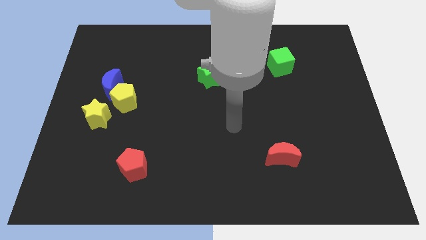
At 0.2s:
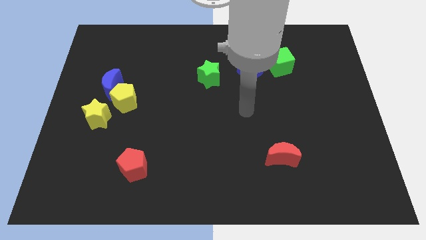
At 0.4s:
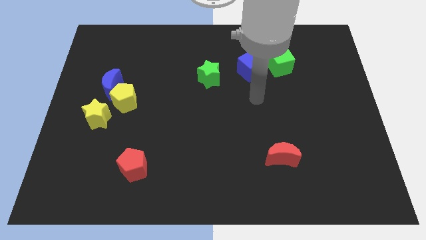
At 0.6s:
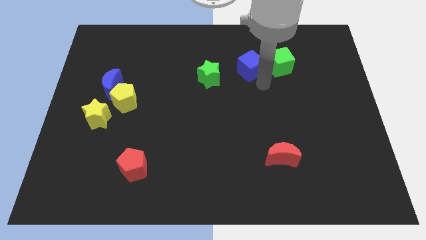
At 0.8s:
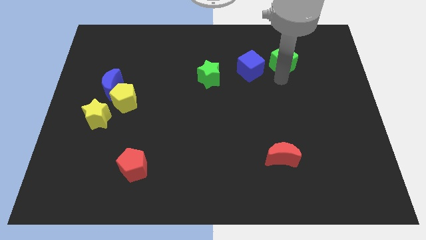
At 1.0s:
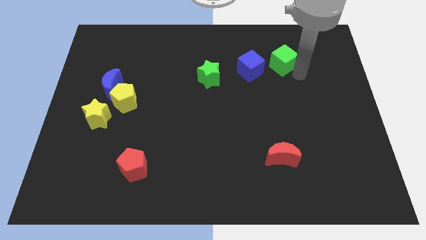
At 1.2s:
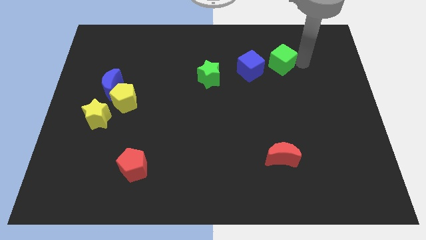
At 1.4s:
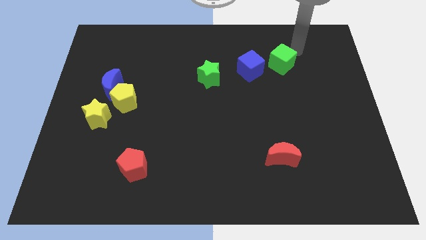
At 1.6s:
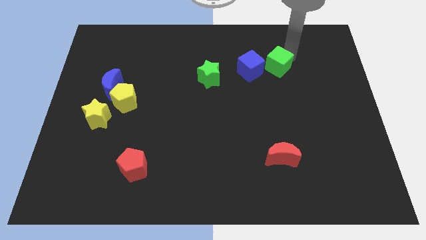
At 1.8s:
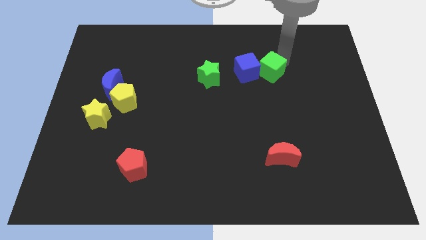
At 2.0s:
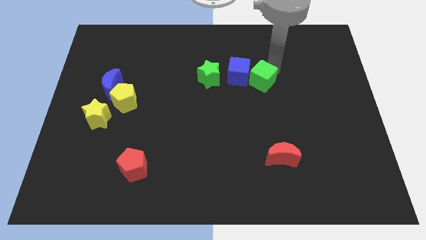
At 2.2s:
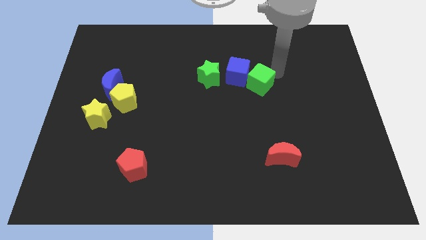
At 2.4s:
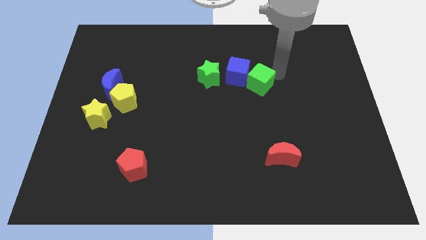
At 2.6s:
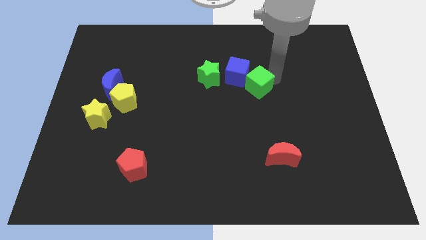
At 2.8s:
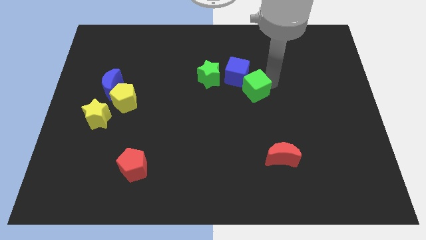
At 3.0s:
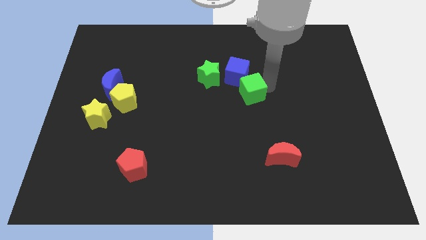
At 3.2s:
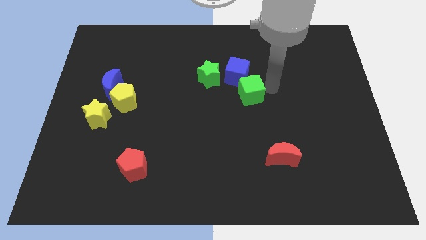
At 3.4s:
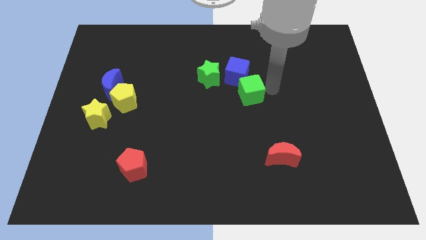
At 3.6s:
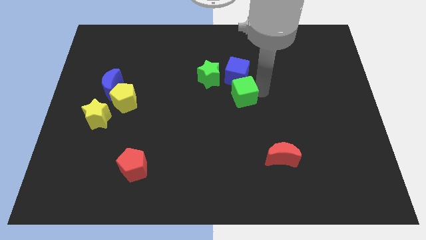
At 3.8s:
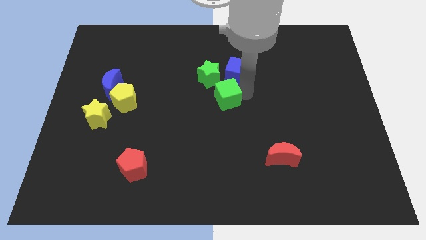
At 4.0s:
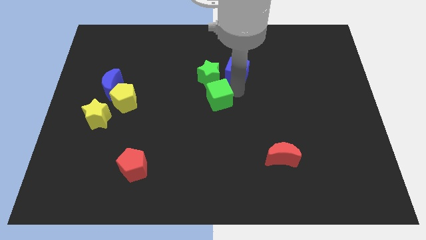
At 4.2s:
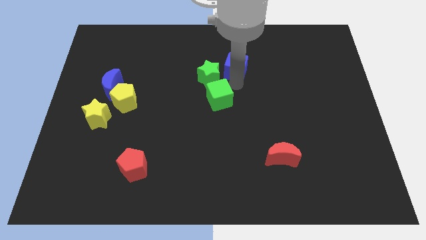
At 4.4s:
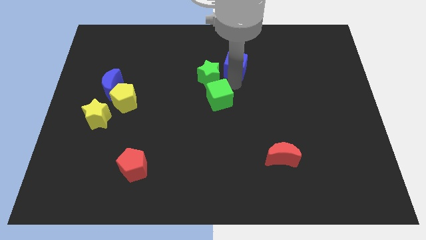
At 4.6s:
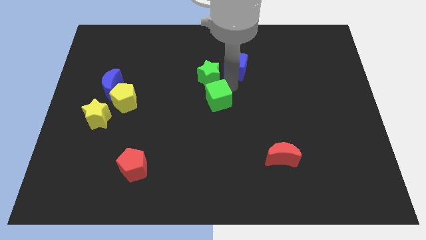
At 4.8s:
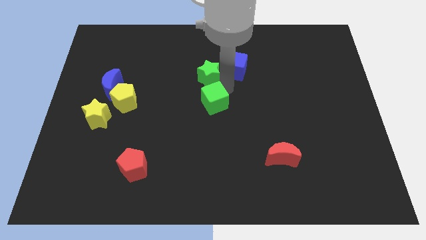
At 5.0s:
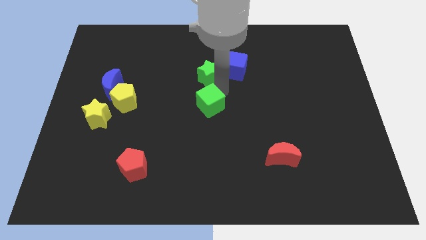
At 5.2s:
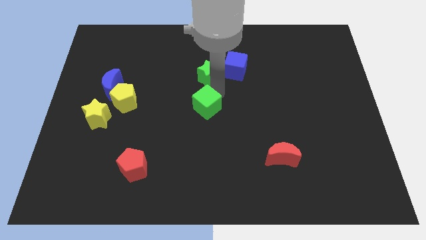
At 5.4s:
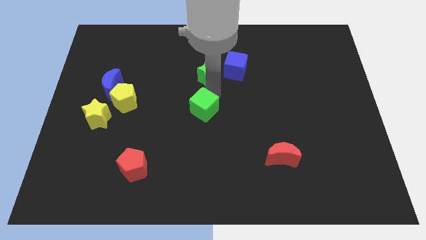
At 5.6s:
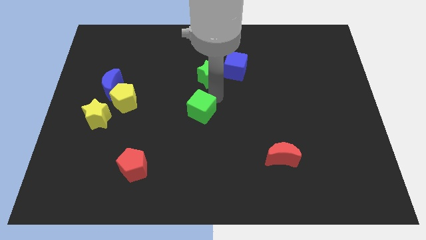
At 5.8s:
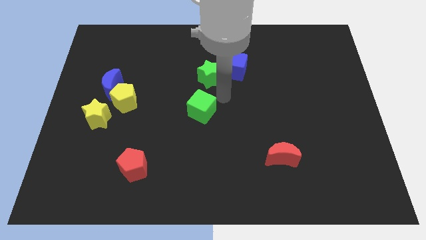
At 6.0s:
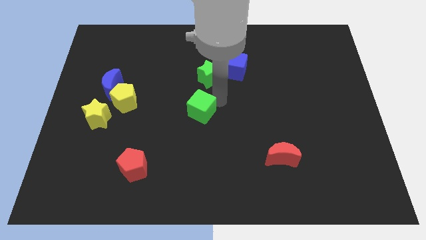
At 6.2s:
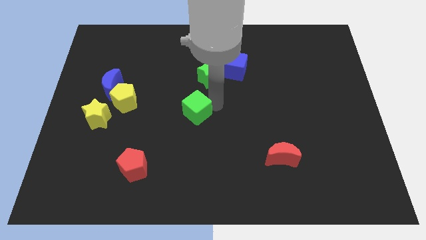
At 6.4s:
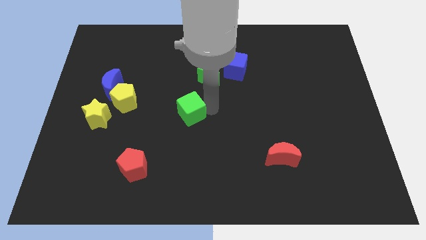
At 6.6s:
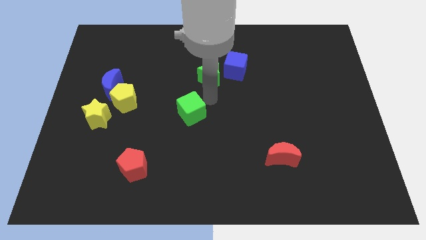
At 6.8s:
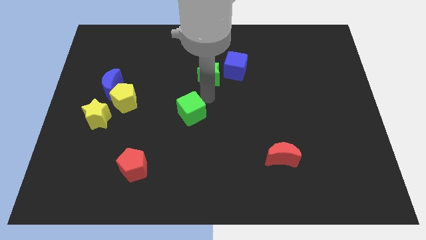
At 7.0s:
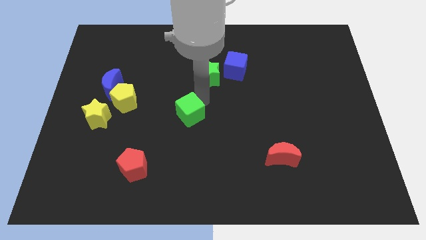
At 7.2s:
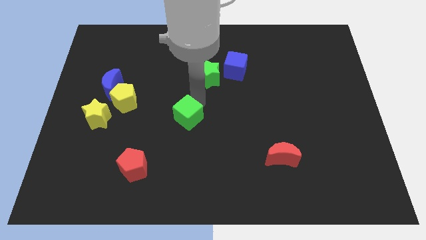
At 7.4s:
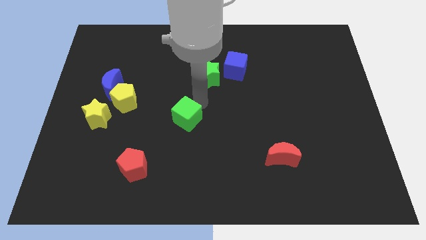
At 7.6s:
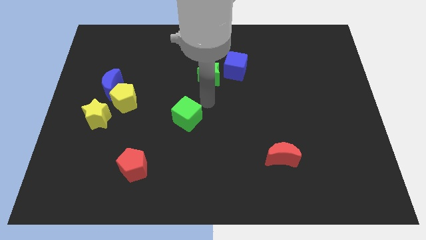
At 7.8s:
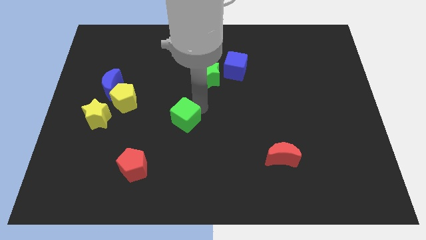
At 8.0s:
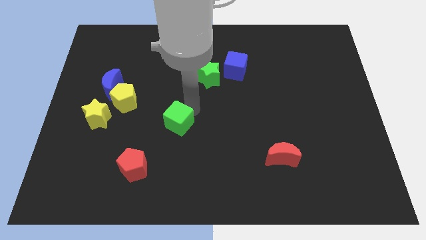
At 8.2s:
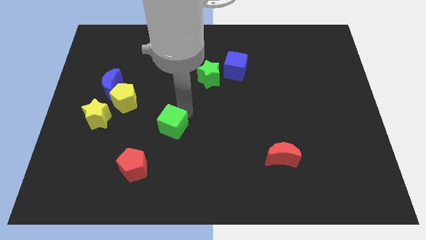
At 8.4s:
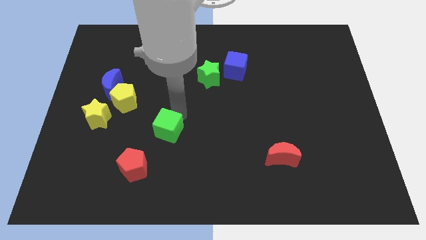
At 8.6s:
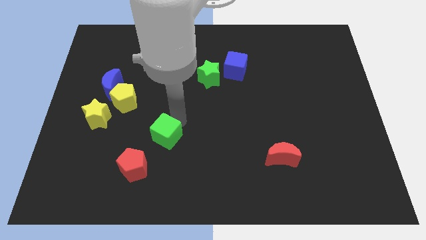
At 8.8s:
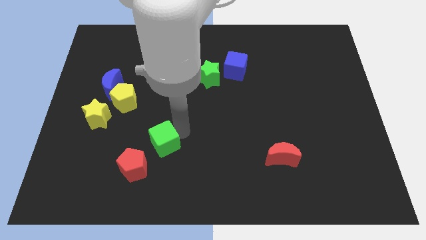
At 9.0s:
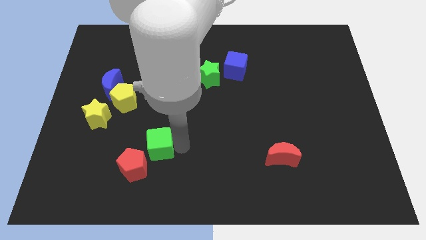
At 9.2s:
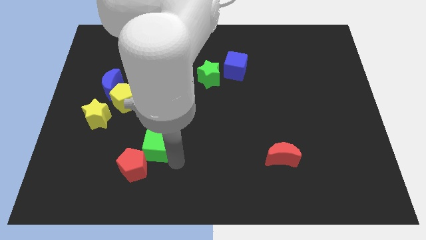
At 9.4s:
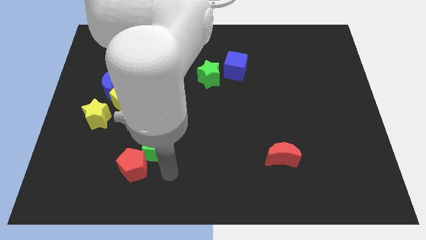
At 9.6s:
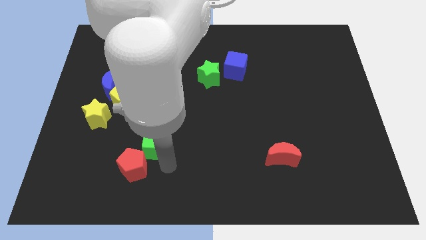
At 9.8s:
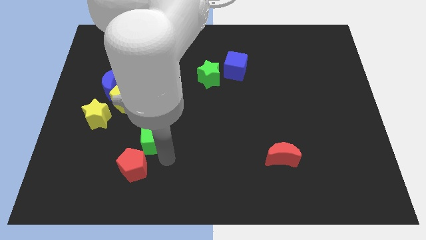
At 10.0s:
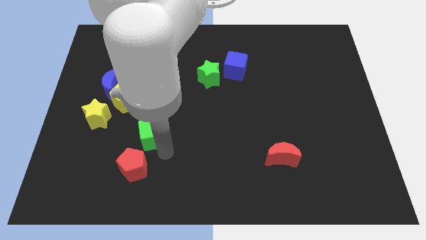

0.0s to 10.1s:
put the green cube to the bottom right side of the yellow pentagon
